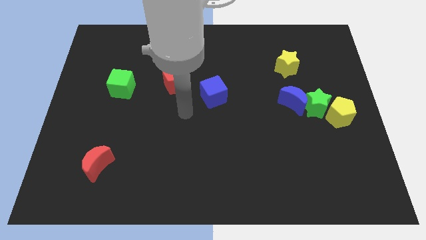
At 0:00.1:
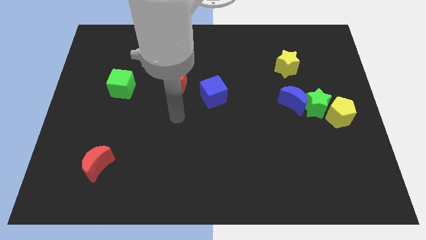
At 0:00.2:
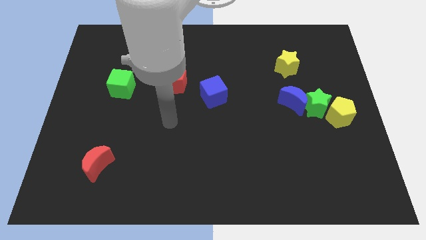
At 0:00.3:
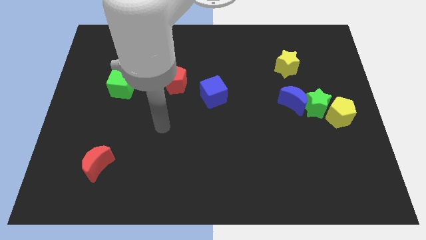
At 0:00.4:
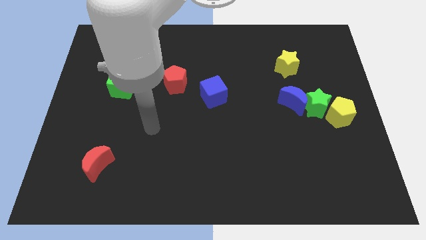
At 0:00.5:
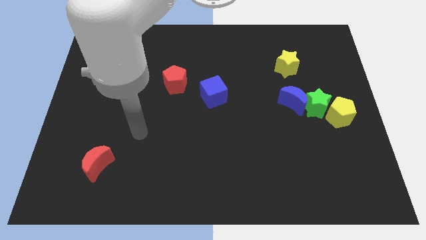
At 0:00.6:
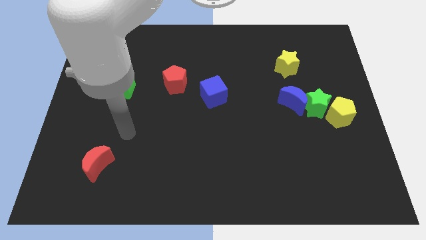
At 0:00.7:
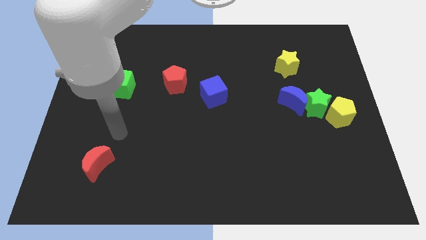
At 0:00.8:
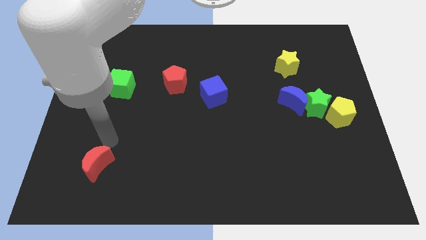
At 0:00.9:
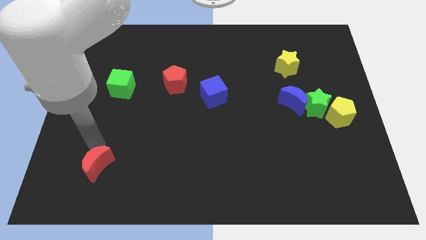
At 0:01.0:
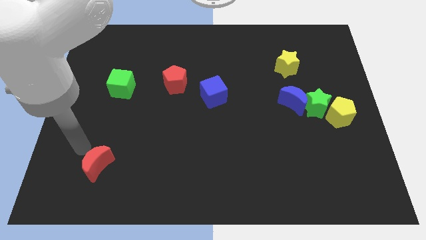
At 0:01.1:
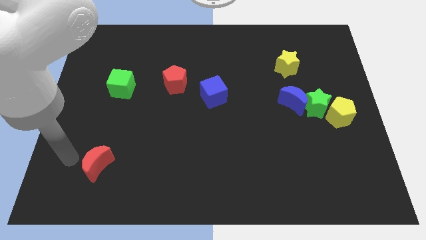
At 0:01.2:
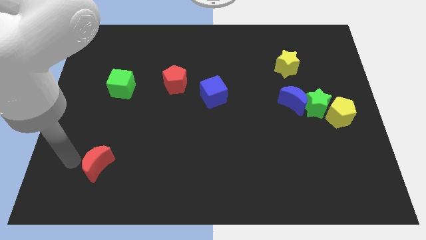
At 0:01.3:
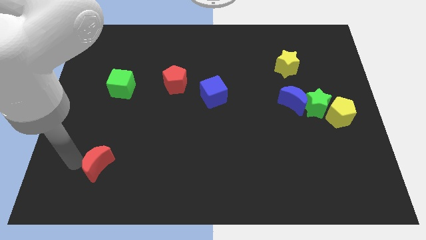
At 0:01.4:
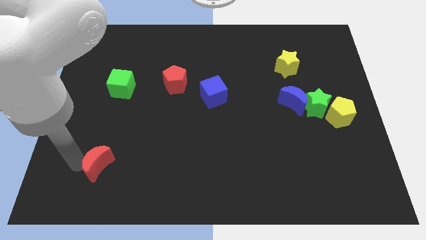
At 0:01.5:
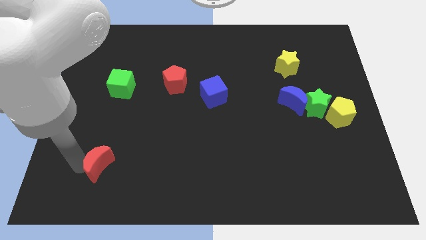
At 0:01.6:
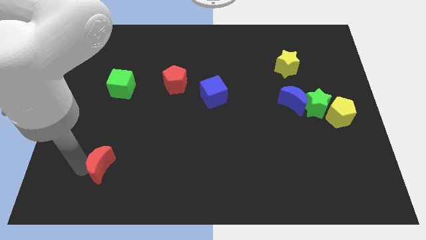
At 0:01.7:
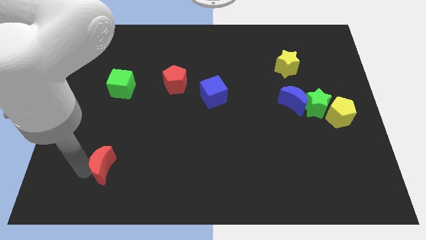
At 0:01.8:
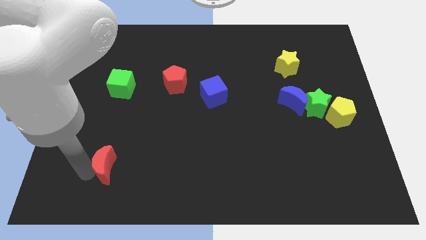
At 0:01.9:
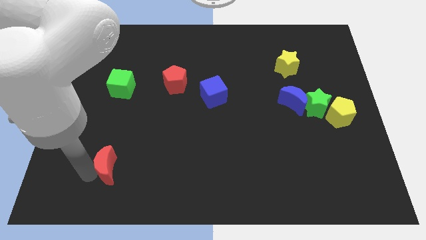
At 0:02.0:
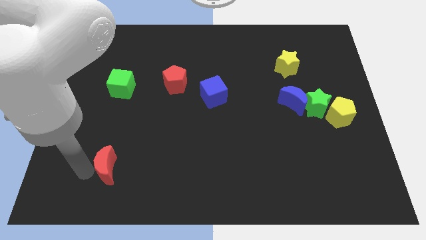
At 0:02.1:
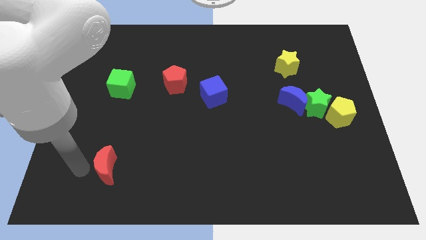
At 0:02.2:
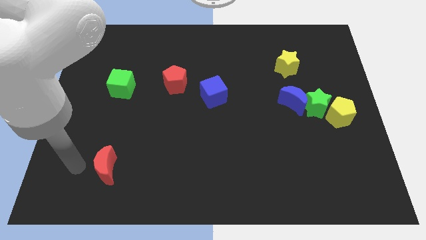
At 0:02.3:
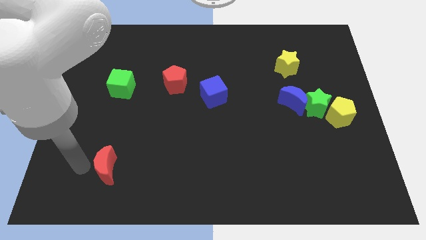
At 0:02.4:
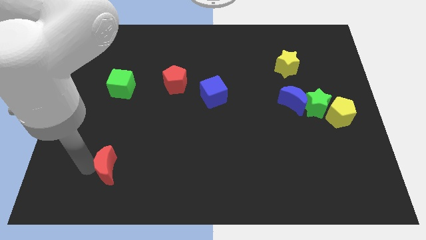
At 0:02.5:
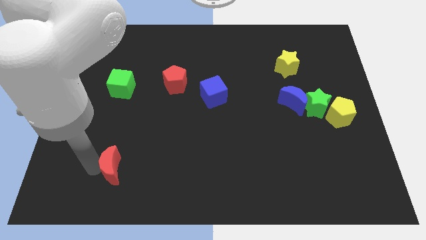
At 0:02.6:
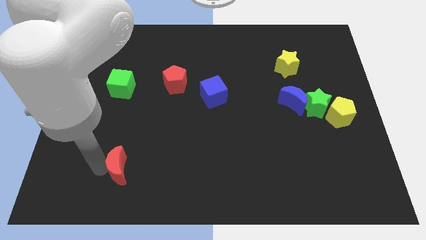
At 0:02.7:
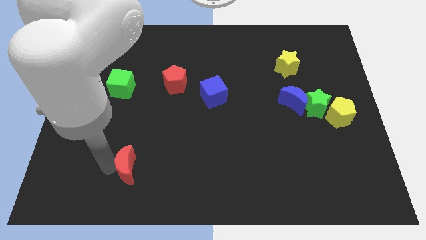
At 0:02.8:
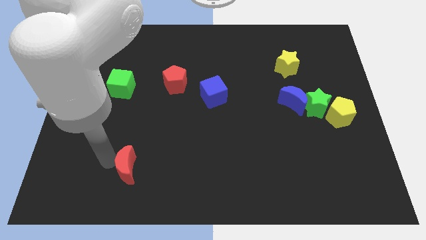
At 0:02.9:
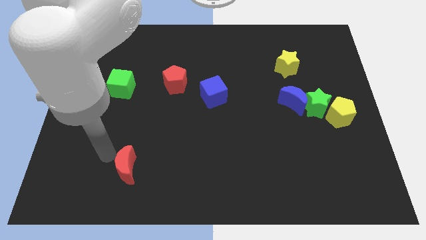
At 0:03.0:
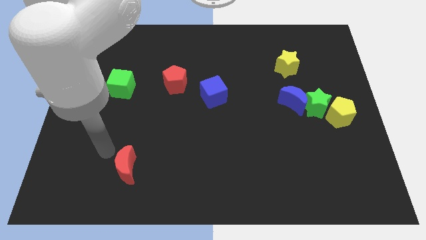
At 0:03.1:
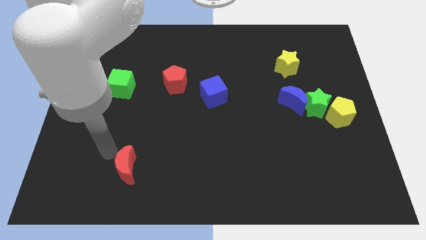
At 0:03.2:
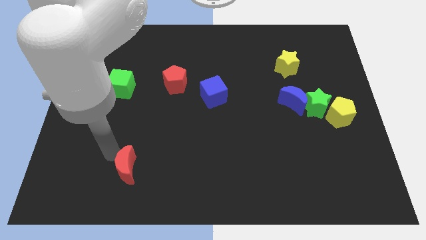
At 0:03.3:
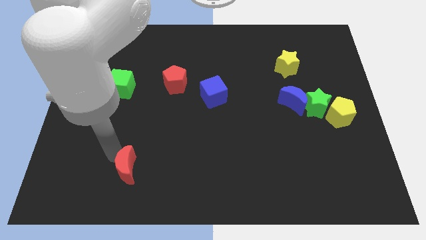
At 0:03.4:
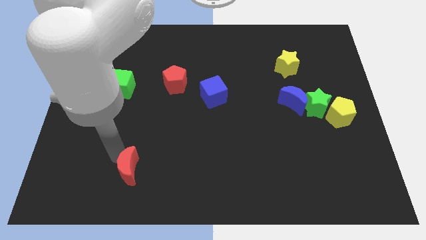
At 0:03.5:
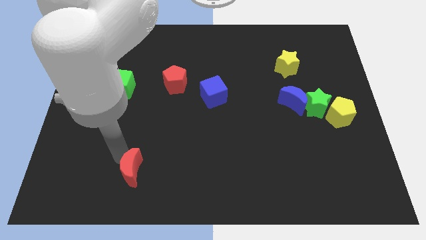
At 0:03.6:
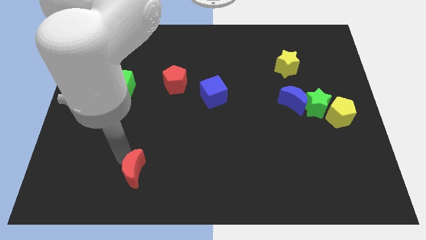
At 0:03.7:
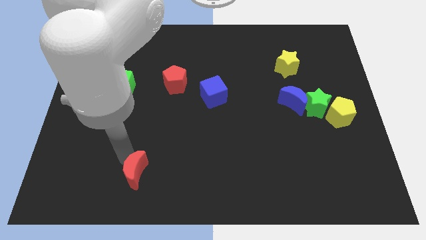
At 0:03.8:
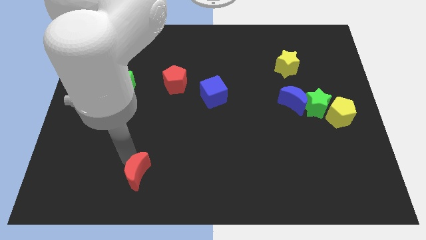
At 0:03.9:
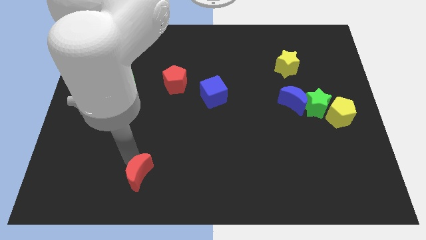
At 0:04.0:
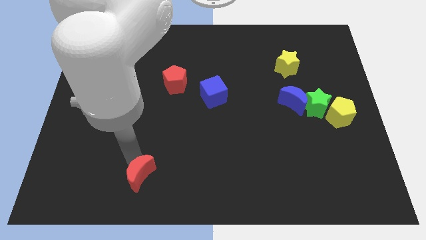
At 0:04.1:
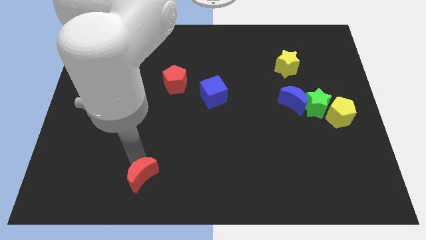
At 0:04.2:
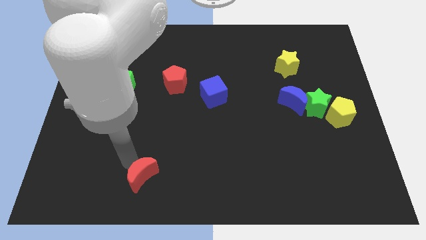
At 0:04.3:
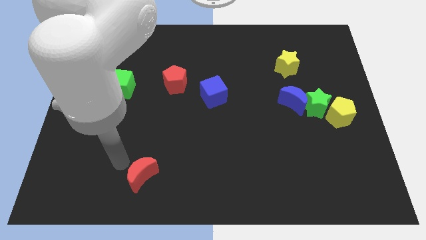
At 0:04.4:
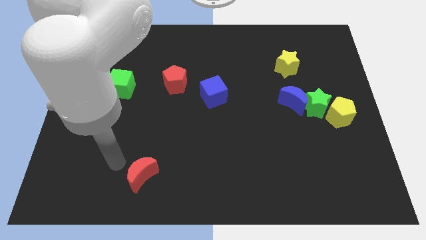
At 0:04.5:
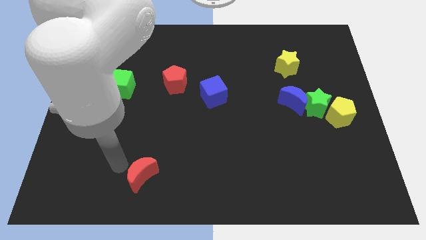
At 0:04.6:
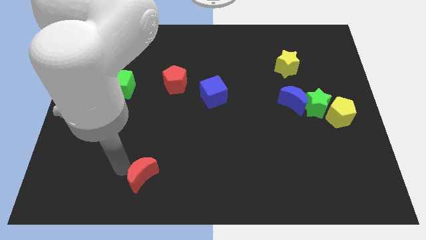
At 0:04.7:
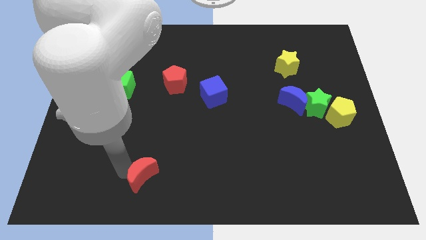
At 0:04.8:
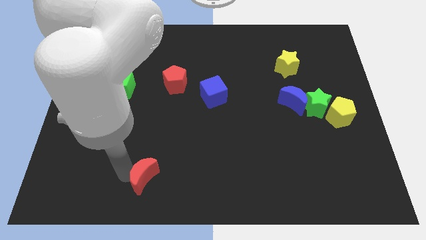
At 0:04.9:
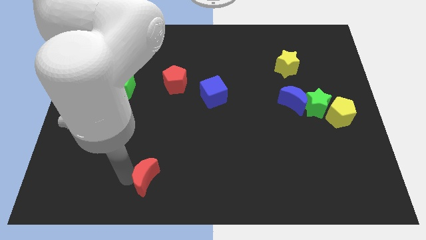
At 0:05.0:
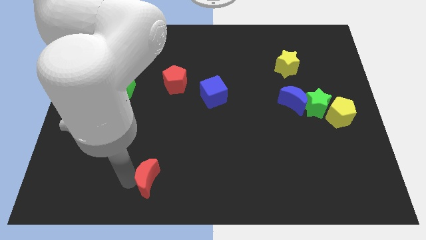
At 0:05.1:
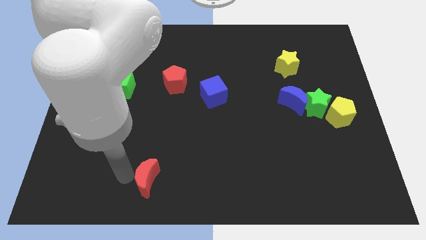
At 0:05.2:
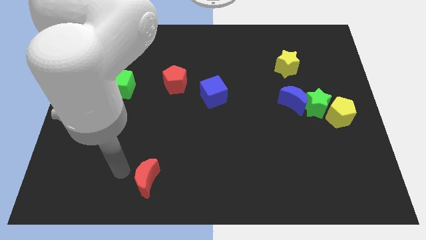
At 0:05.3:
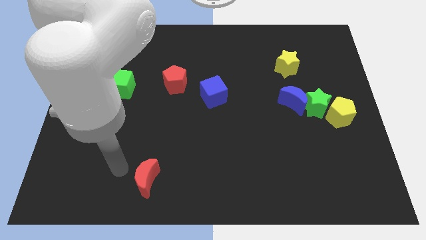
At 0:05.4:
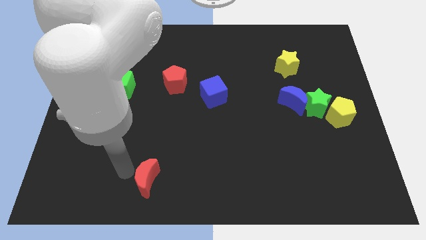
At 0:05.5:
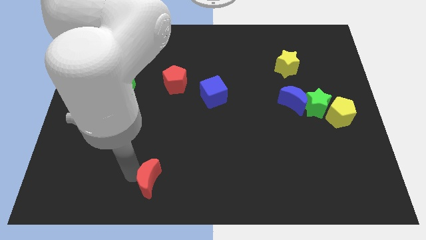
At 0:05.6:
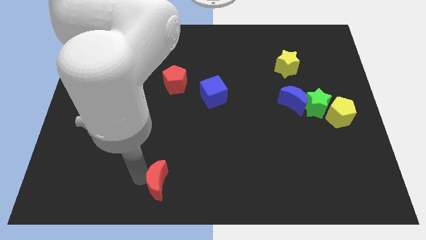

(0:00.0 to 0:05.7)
push the red moon to the bottom

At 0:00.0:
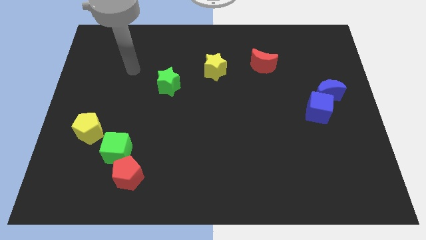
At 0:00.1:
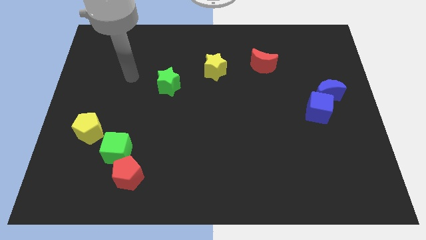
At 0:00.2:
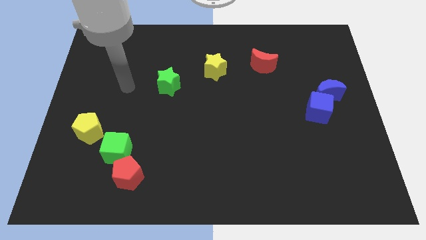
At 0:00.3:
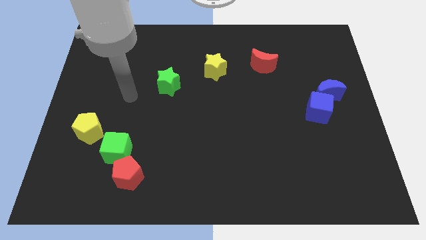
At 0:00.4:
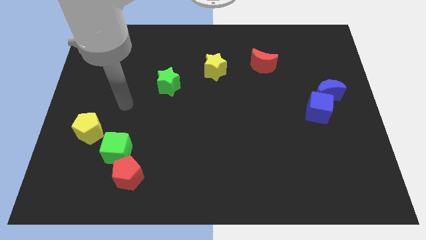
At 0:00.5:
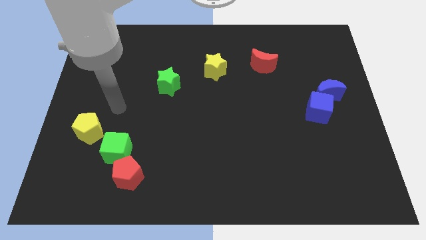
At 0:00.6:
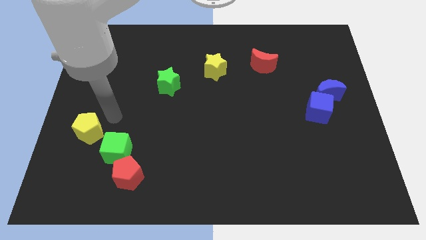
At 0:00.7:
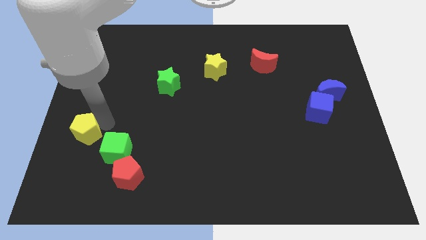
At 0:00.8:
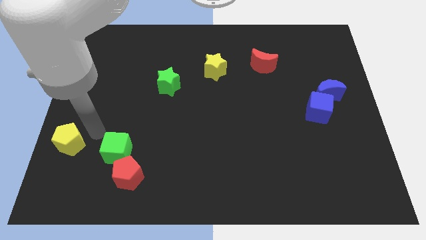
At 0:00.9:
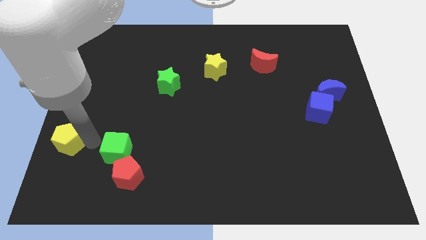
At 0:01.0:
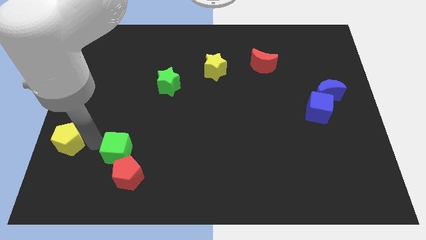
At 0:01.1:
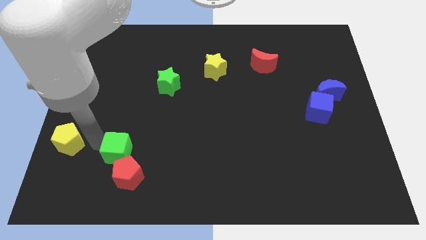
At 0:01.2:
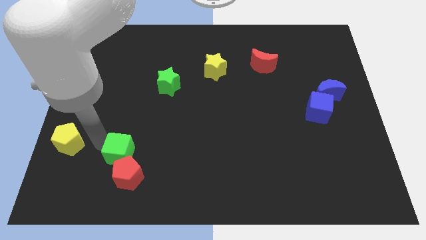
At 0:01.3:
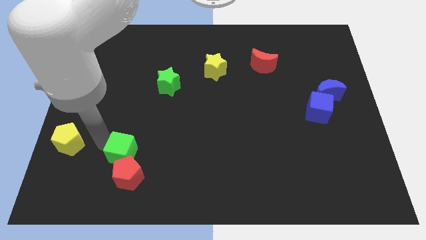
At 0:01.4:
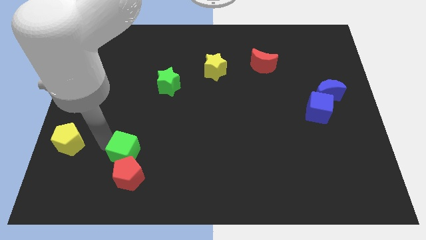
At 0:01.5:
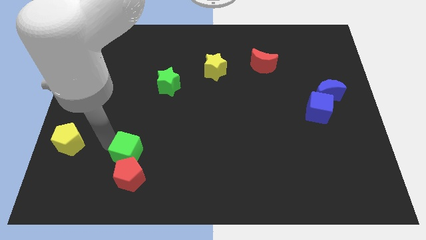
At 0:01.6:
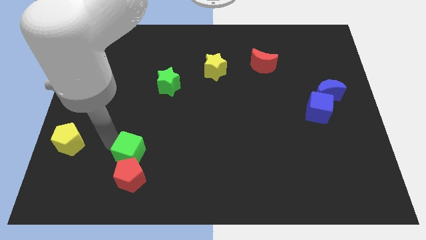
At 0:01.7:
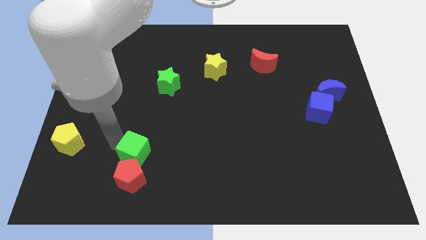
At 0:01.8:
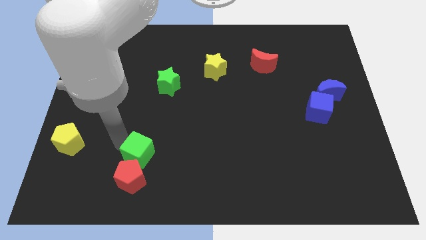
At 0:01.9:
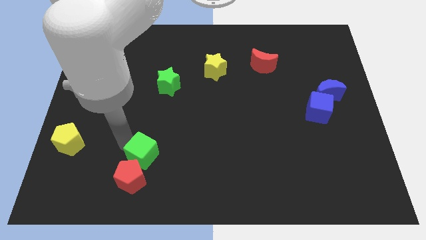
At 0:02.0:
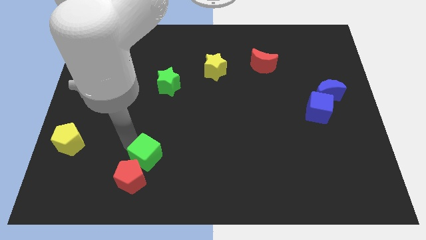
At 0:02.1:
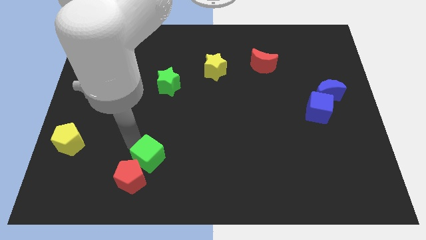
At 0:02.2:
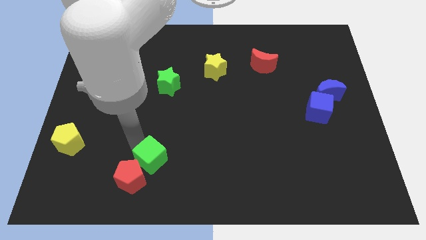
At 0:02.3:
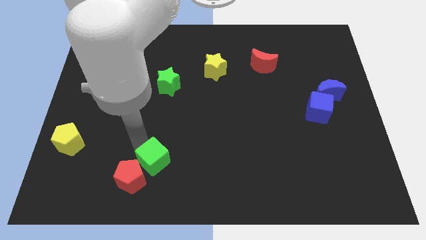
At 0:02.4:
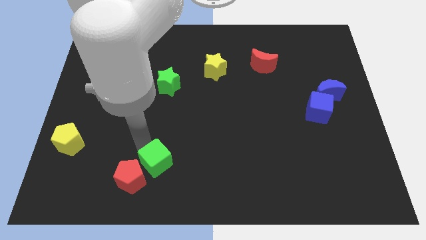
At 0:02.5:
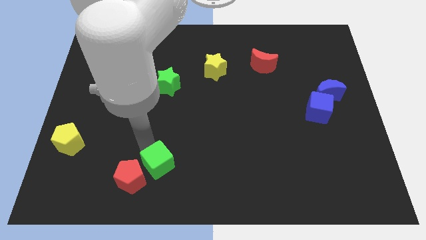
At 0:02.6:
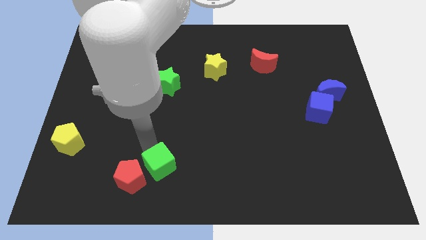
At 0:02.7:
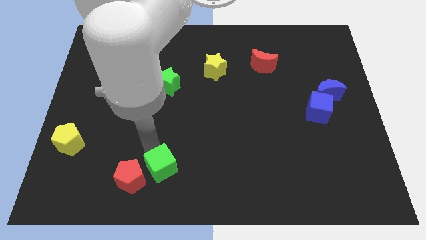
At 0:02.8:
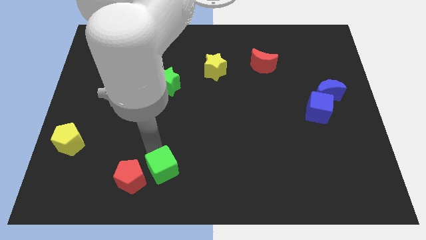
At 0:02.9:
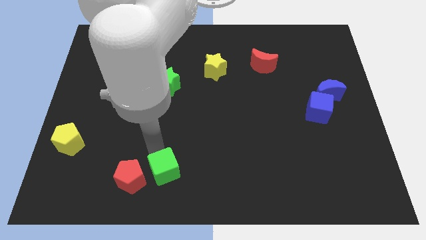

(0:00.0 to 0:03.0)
slide the green cube to the bottom
